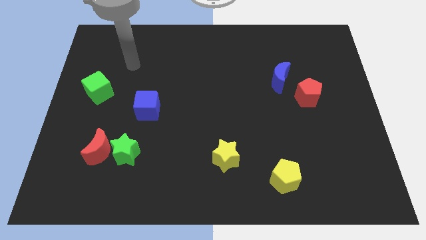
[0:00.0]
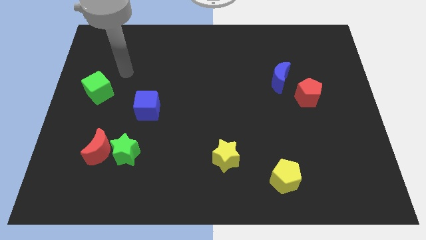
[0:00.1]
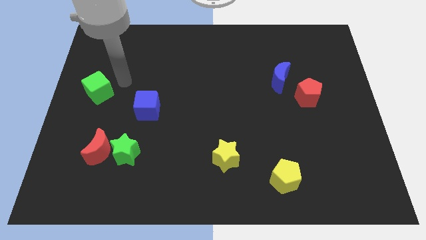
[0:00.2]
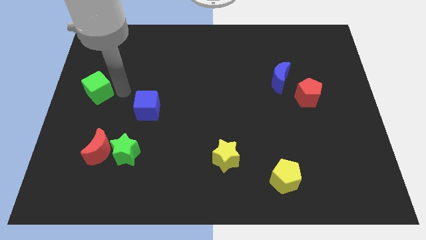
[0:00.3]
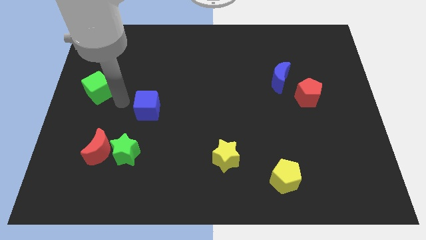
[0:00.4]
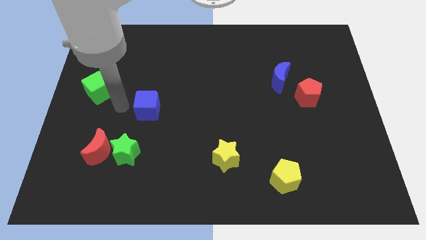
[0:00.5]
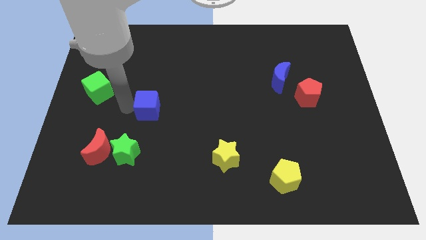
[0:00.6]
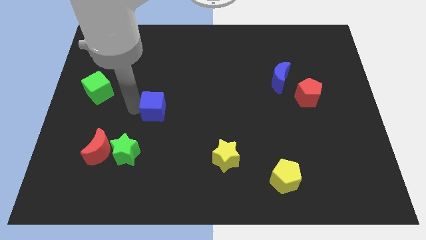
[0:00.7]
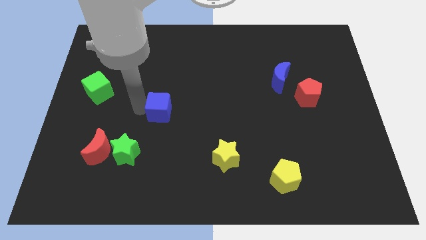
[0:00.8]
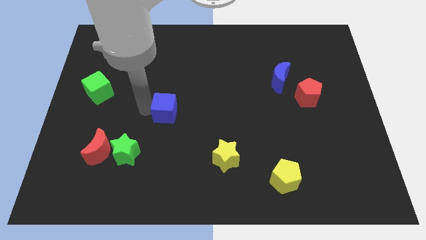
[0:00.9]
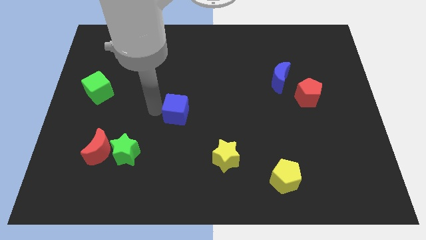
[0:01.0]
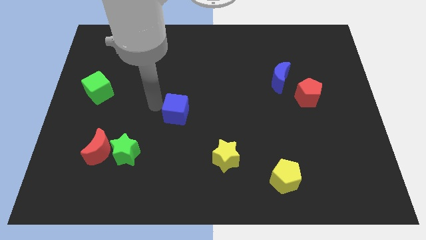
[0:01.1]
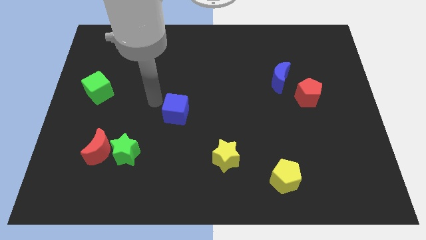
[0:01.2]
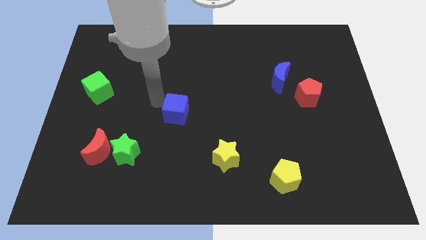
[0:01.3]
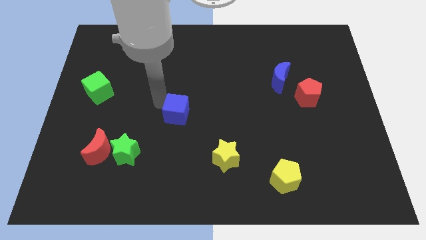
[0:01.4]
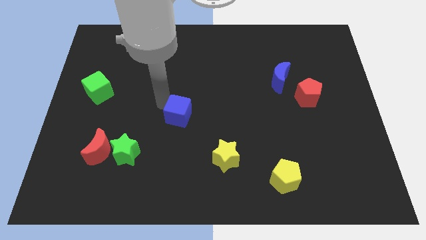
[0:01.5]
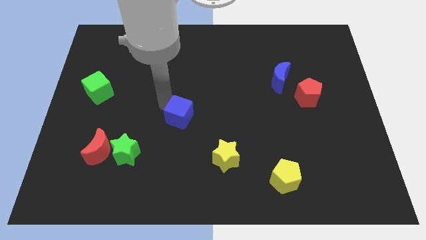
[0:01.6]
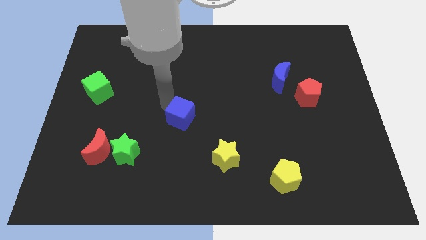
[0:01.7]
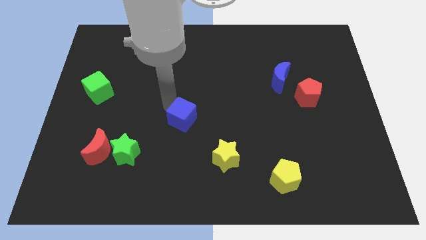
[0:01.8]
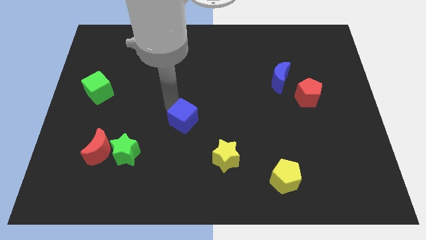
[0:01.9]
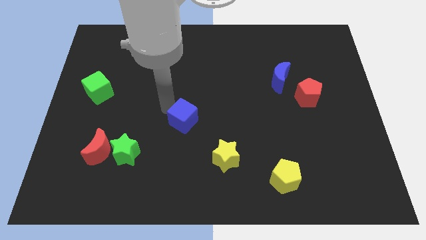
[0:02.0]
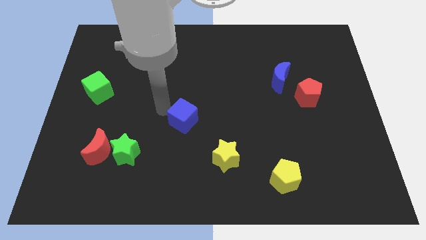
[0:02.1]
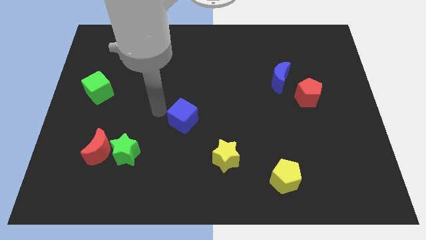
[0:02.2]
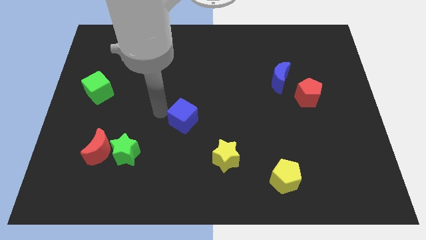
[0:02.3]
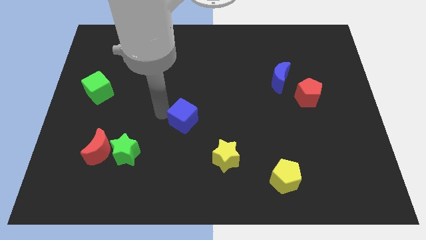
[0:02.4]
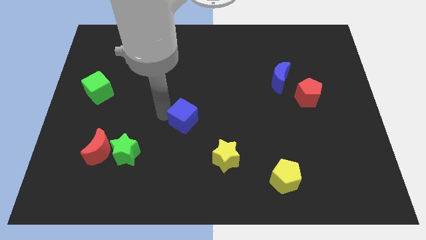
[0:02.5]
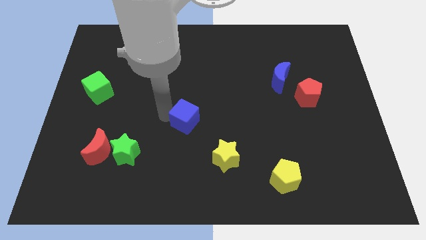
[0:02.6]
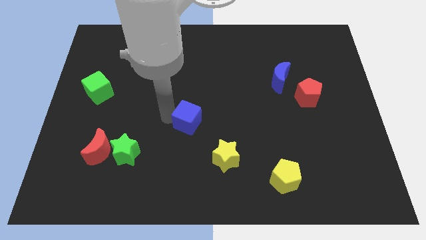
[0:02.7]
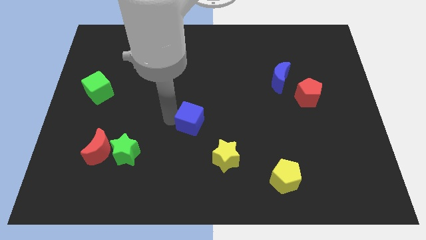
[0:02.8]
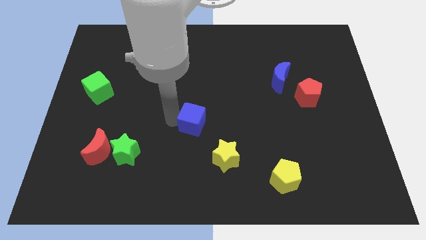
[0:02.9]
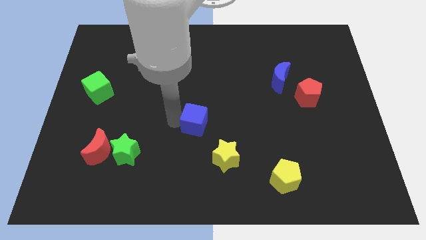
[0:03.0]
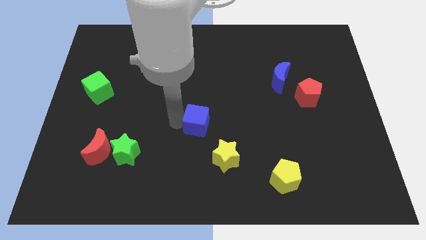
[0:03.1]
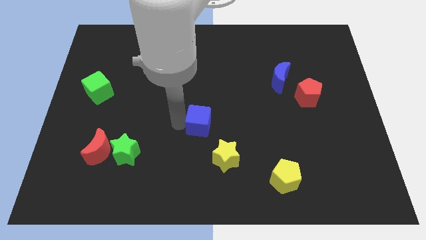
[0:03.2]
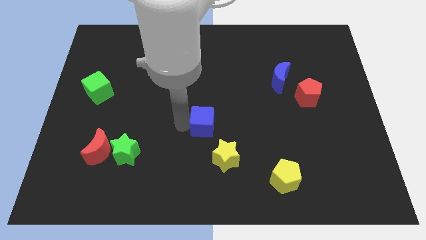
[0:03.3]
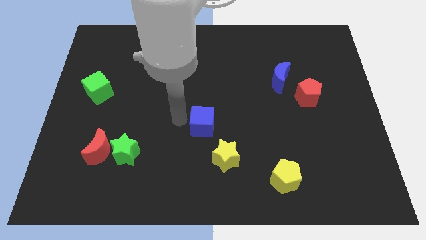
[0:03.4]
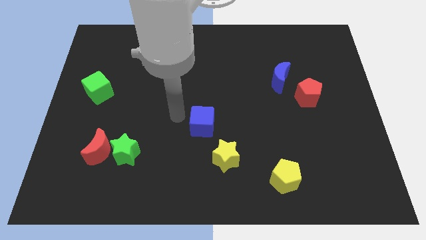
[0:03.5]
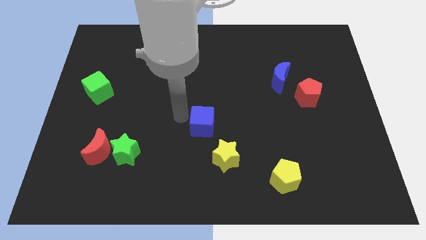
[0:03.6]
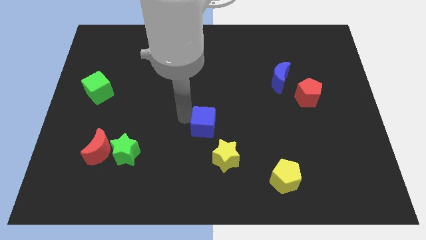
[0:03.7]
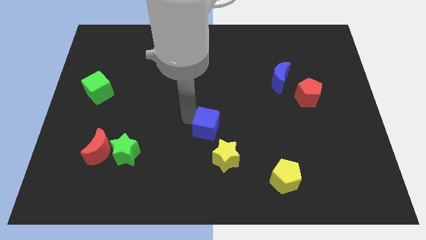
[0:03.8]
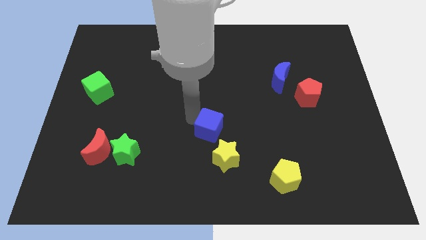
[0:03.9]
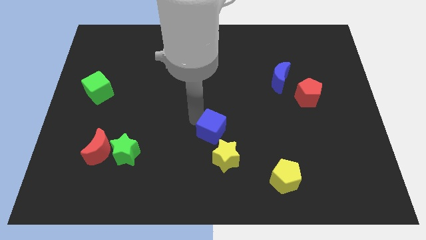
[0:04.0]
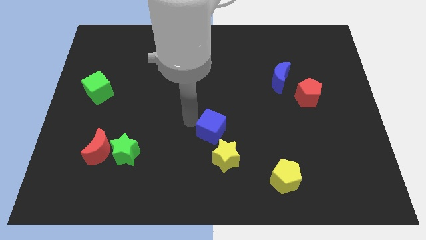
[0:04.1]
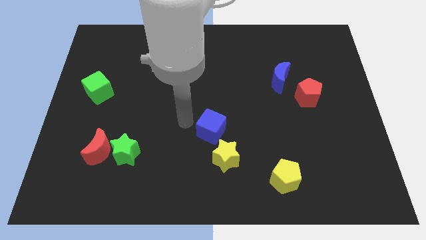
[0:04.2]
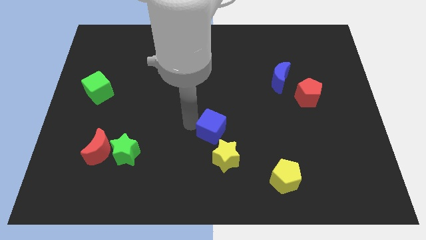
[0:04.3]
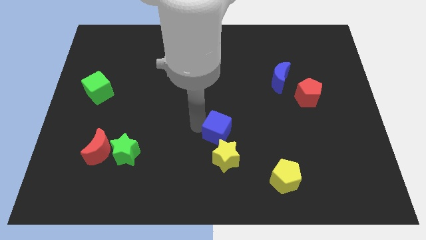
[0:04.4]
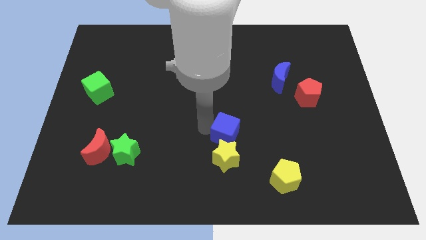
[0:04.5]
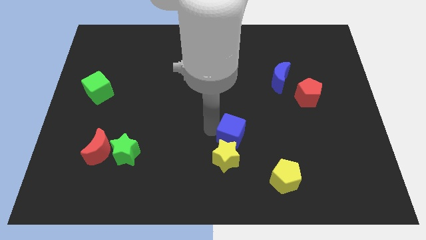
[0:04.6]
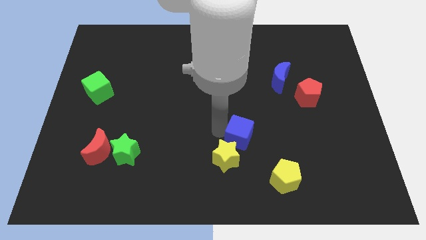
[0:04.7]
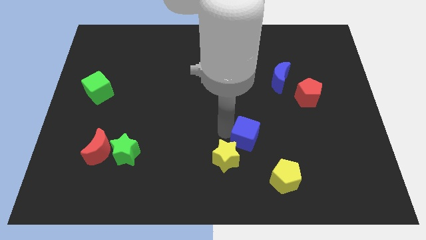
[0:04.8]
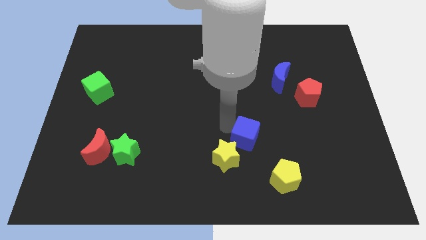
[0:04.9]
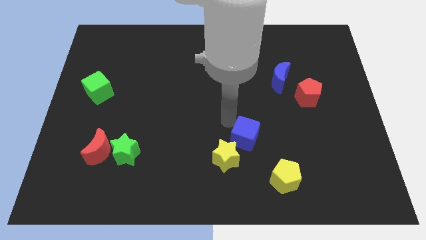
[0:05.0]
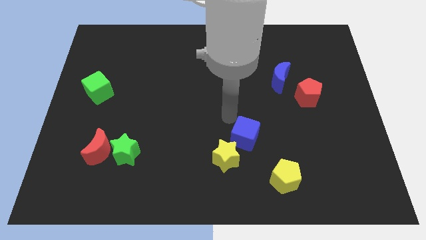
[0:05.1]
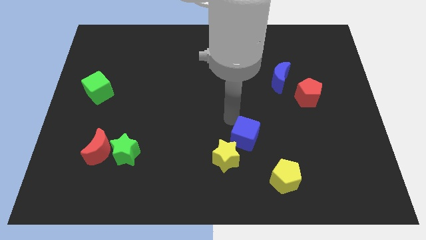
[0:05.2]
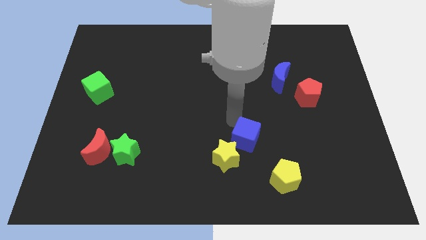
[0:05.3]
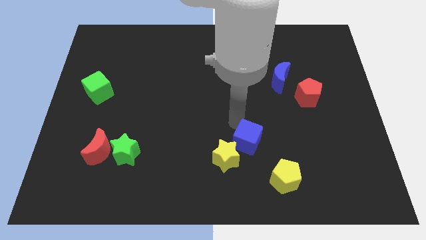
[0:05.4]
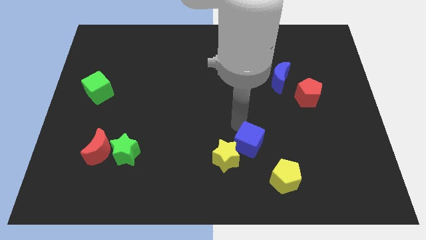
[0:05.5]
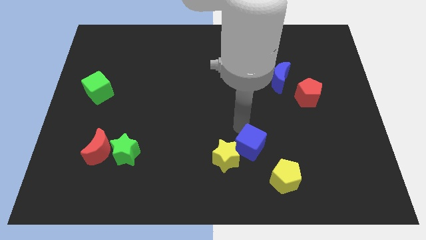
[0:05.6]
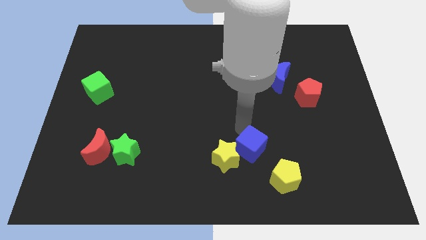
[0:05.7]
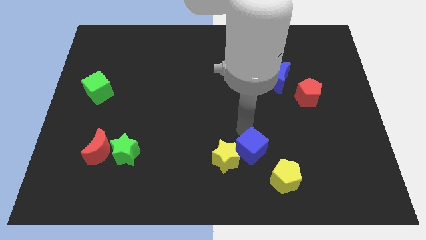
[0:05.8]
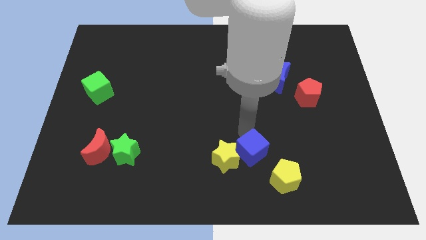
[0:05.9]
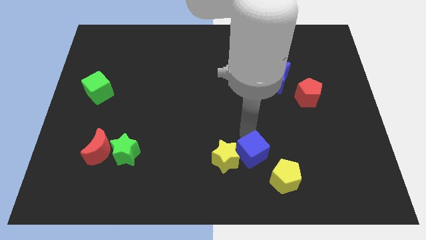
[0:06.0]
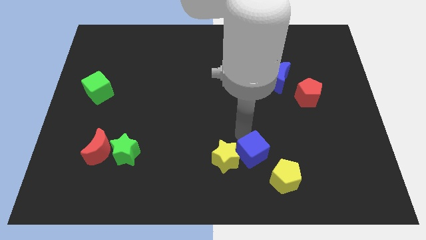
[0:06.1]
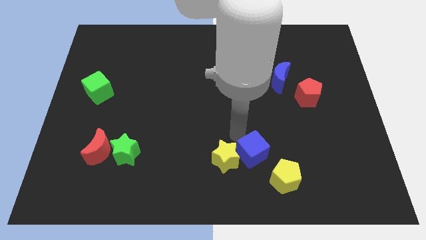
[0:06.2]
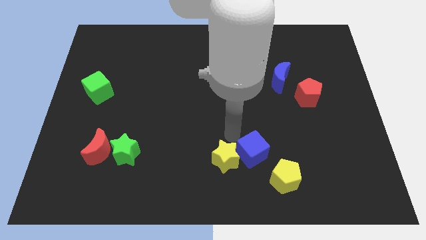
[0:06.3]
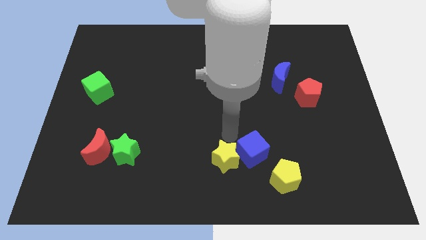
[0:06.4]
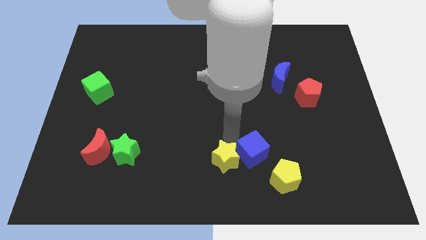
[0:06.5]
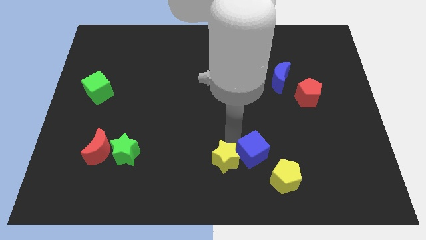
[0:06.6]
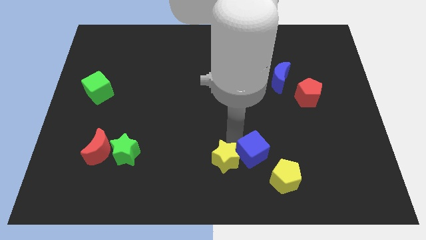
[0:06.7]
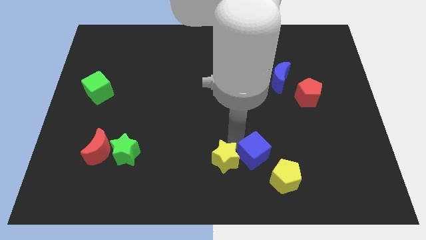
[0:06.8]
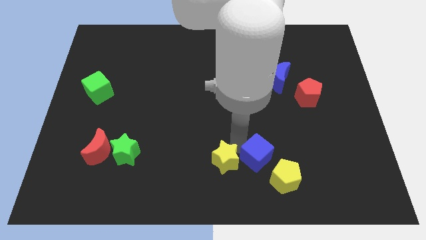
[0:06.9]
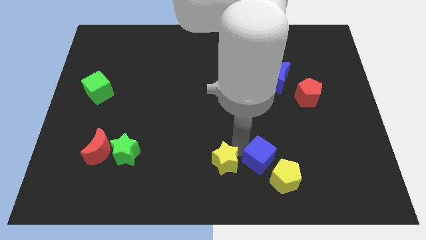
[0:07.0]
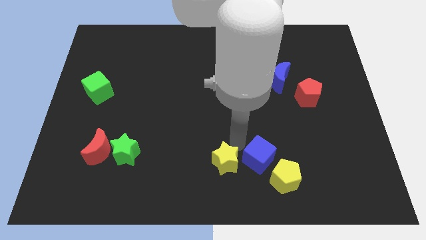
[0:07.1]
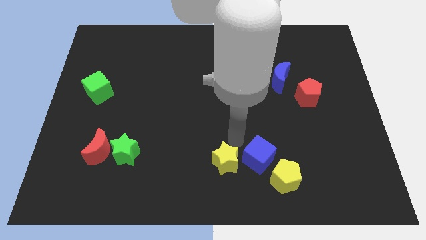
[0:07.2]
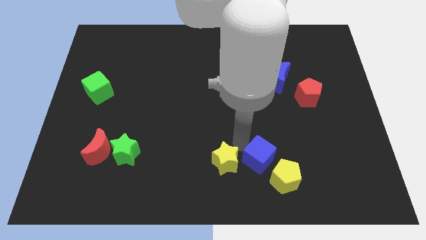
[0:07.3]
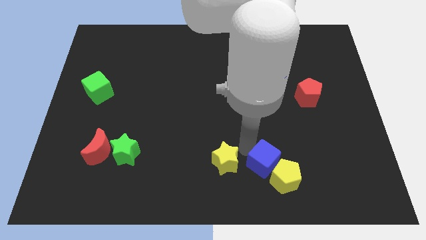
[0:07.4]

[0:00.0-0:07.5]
move the blue cube close to the yellow pentagon

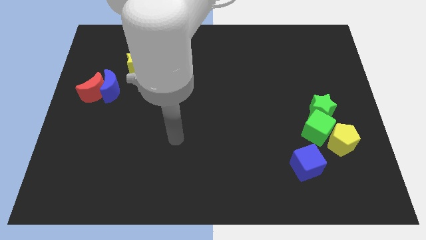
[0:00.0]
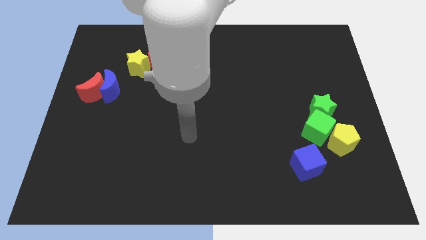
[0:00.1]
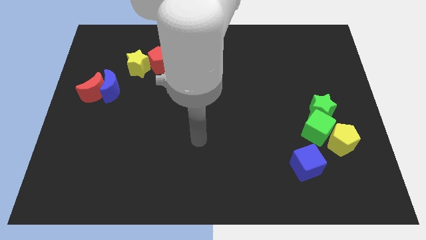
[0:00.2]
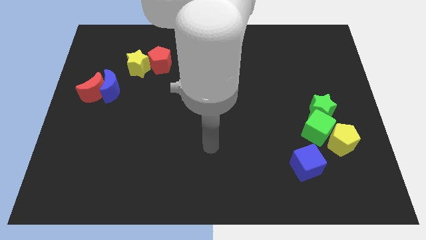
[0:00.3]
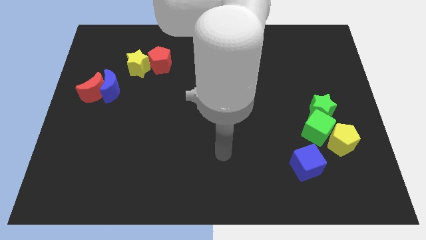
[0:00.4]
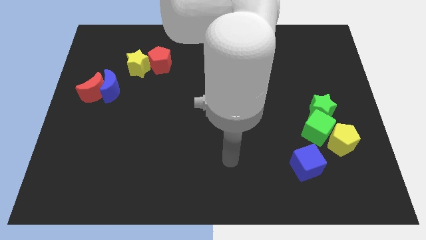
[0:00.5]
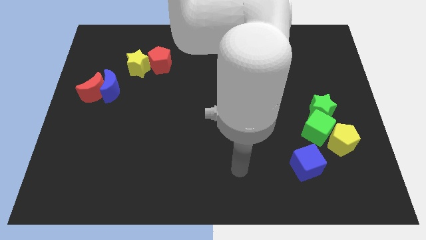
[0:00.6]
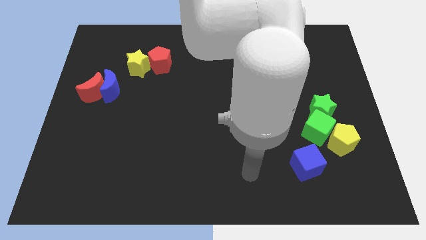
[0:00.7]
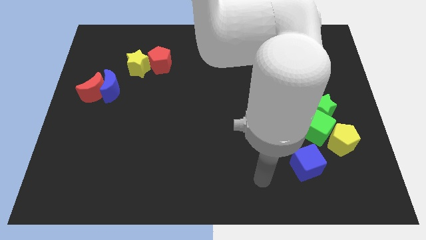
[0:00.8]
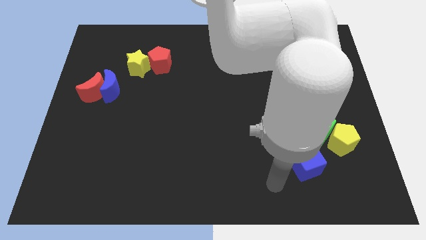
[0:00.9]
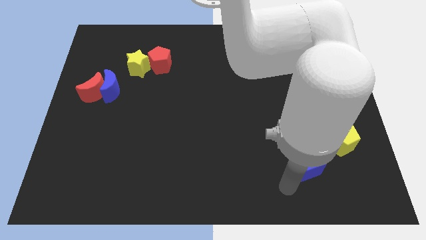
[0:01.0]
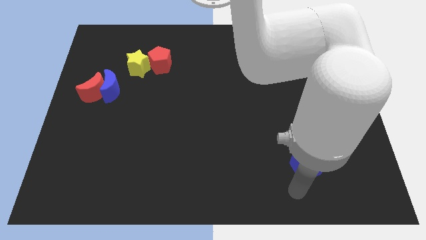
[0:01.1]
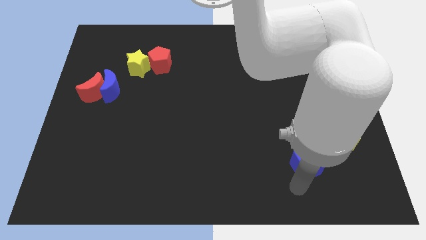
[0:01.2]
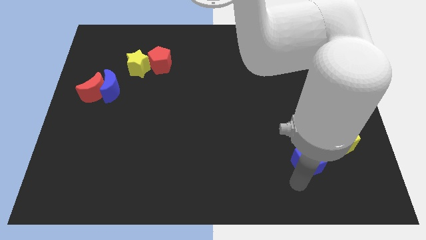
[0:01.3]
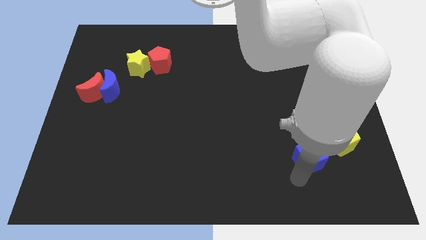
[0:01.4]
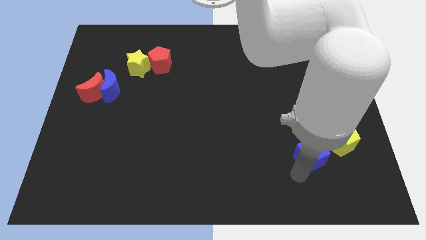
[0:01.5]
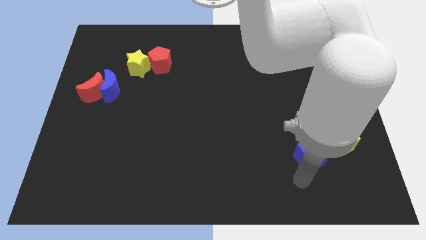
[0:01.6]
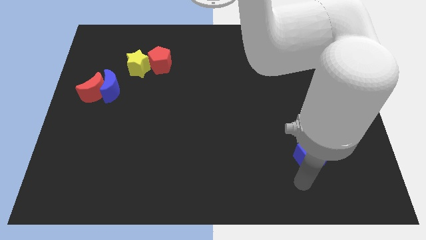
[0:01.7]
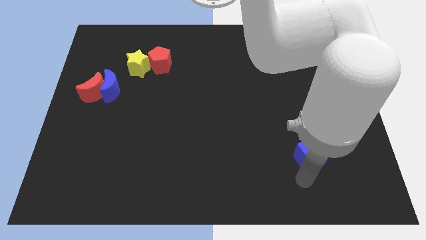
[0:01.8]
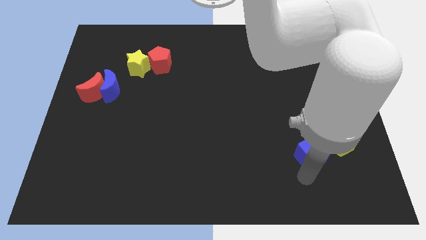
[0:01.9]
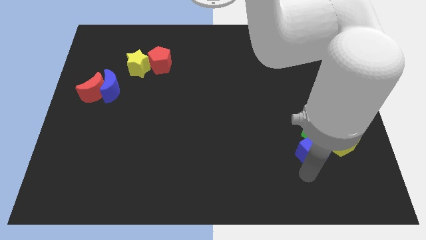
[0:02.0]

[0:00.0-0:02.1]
put the blue cube next to the green cube
